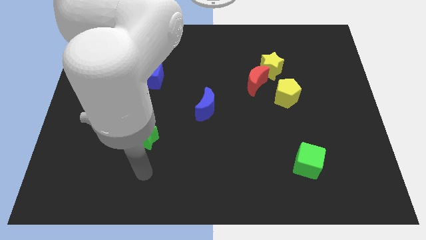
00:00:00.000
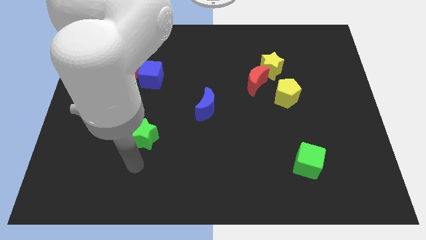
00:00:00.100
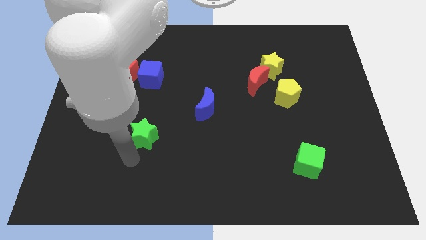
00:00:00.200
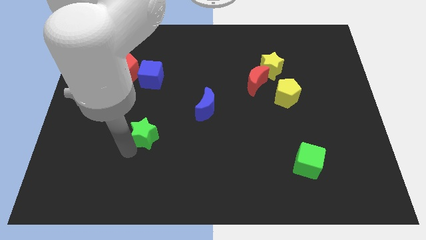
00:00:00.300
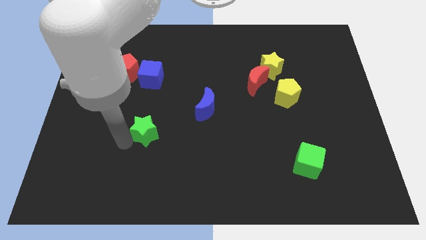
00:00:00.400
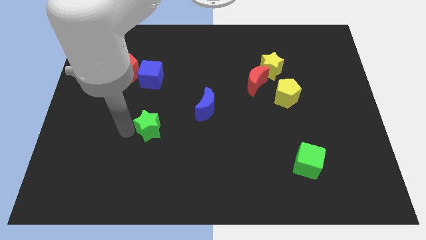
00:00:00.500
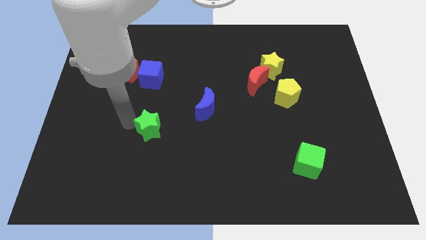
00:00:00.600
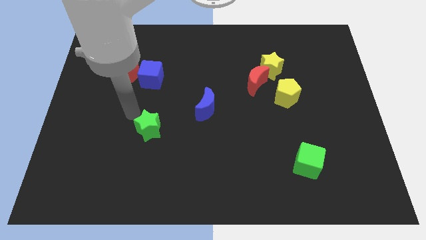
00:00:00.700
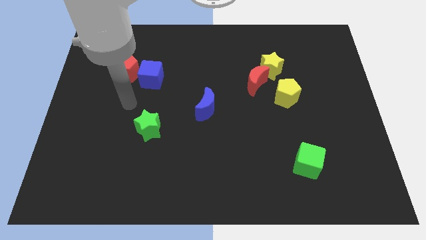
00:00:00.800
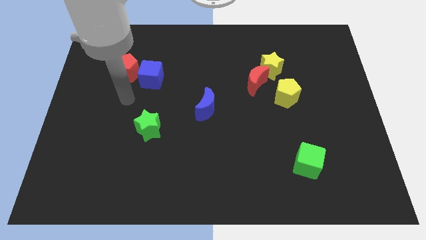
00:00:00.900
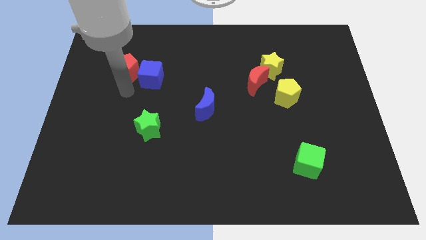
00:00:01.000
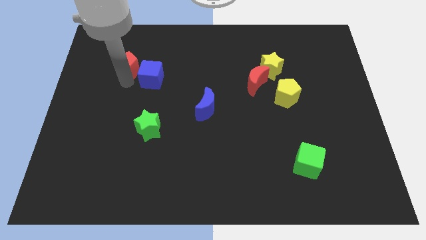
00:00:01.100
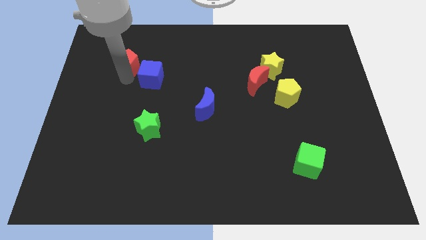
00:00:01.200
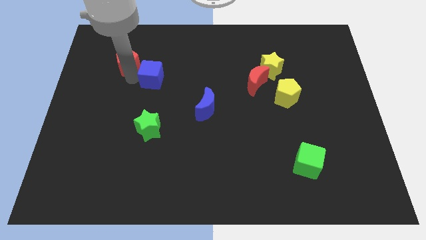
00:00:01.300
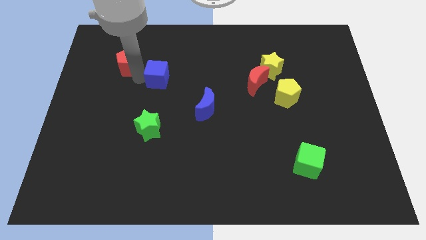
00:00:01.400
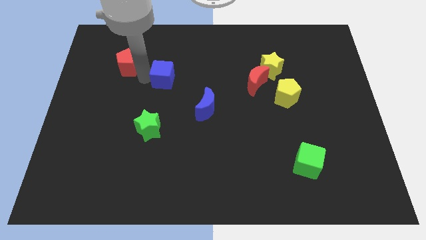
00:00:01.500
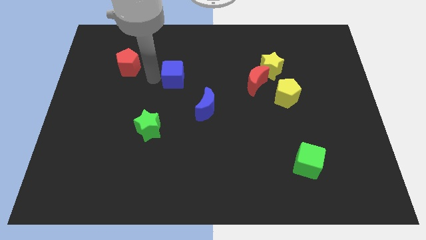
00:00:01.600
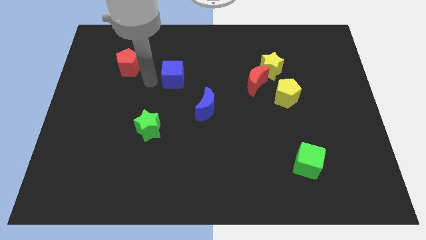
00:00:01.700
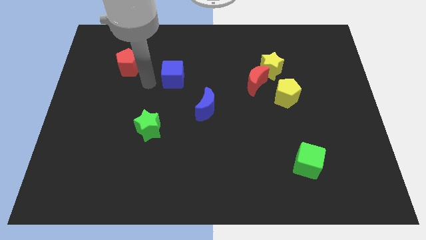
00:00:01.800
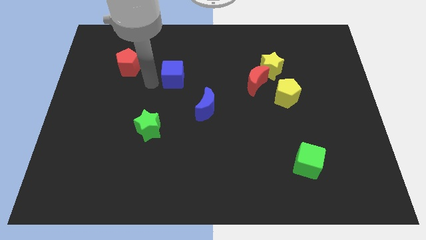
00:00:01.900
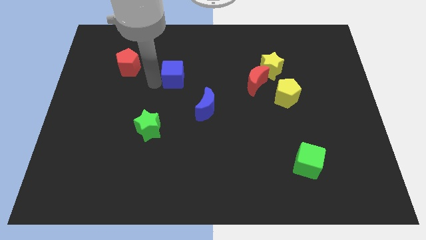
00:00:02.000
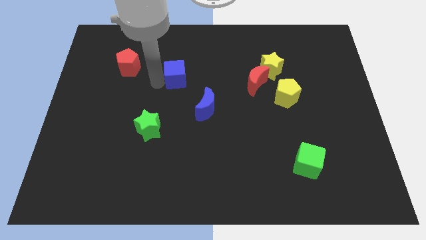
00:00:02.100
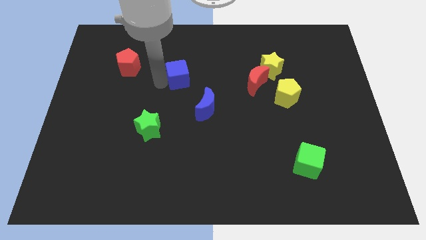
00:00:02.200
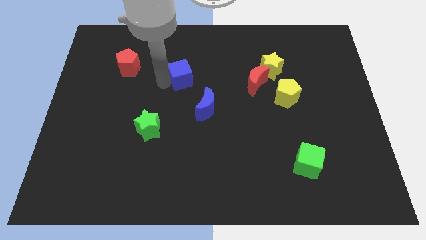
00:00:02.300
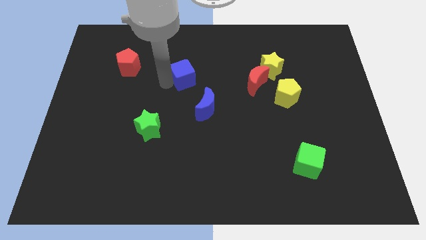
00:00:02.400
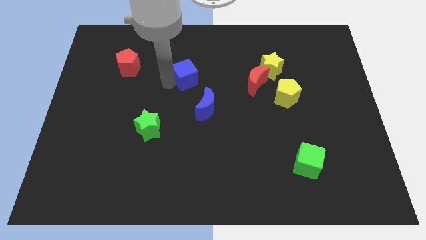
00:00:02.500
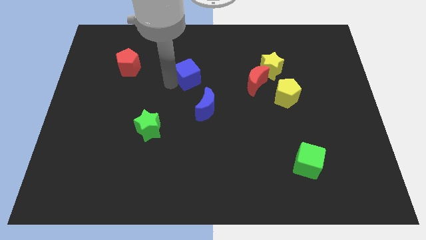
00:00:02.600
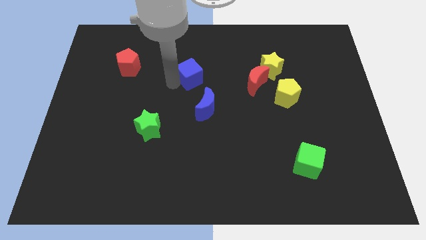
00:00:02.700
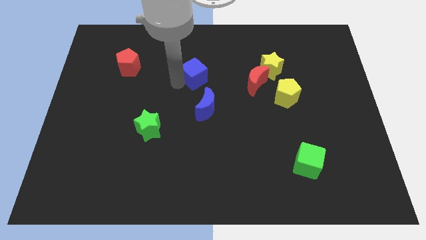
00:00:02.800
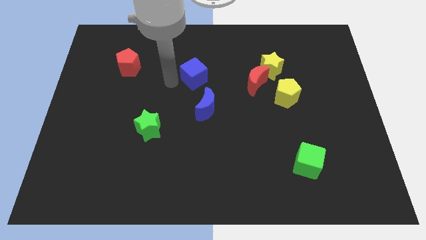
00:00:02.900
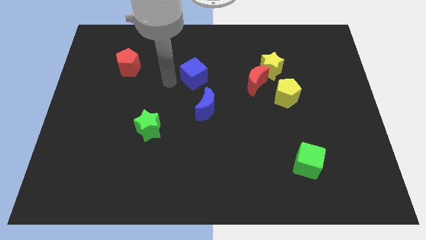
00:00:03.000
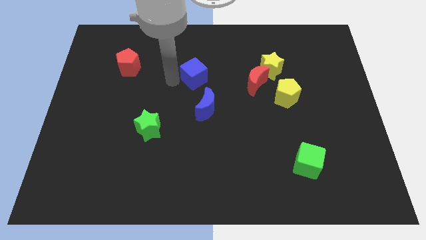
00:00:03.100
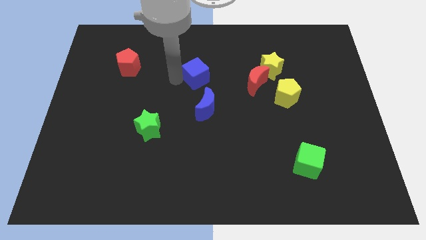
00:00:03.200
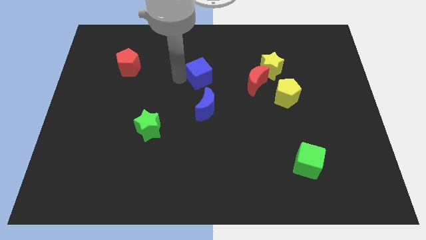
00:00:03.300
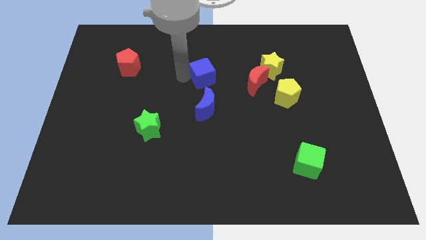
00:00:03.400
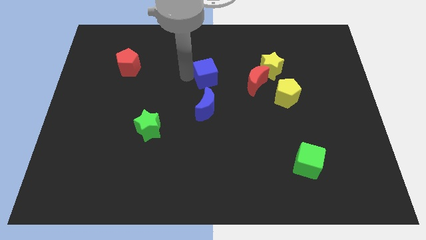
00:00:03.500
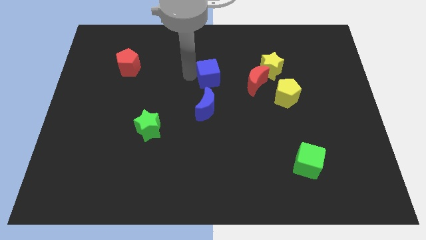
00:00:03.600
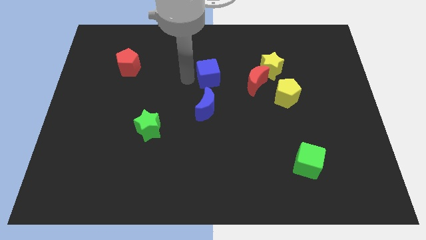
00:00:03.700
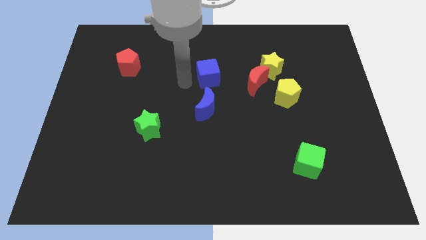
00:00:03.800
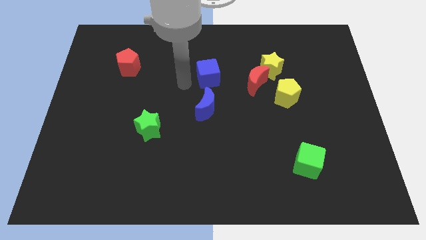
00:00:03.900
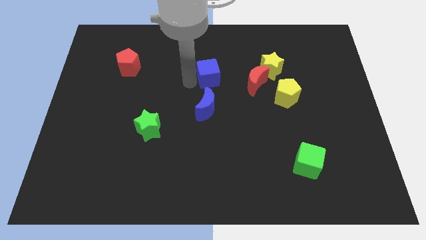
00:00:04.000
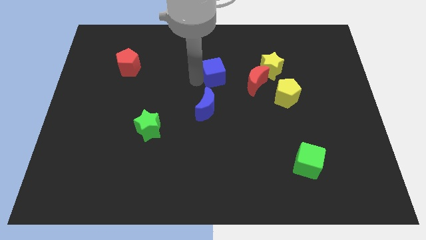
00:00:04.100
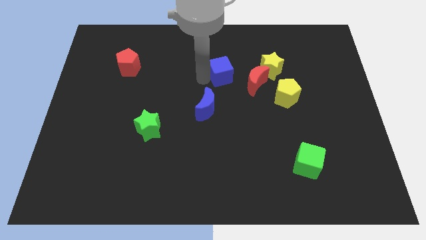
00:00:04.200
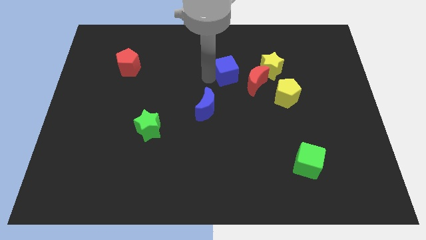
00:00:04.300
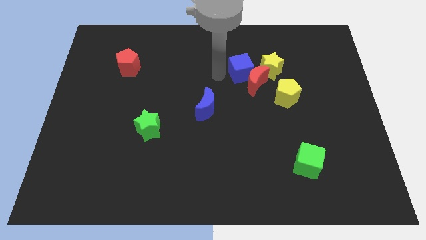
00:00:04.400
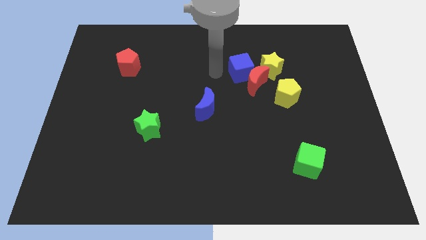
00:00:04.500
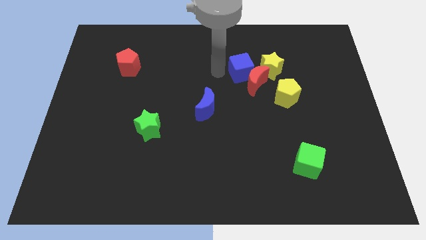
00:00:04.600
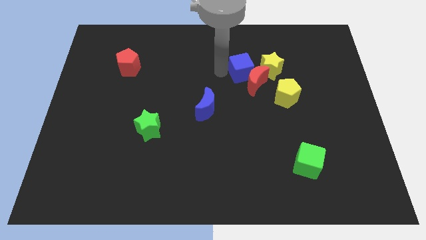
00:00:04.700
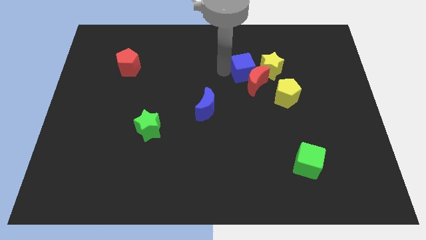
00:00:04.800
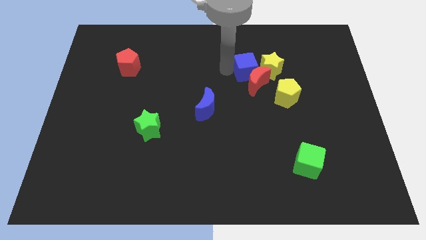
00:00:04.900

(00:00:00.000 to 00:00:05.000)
slide the blue cube next to the yellow star

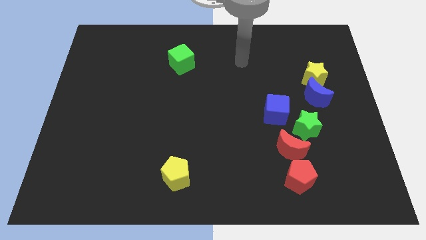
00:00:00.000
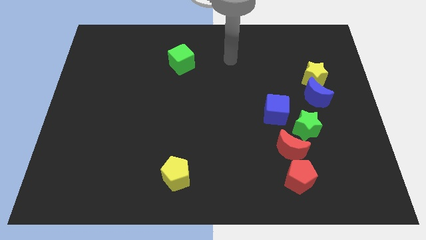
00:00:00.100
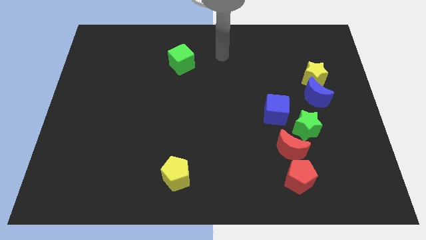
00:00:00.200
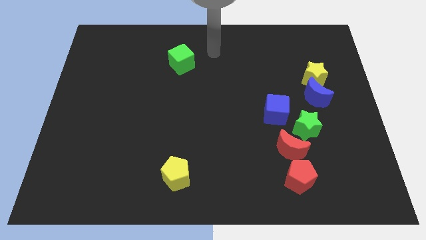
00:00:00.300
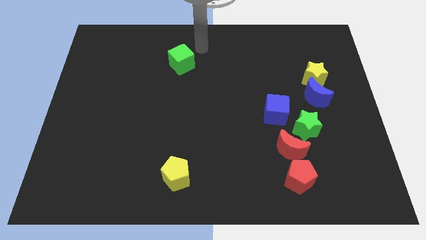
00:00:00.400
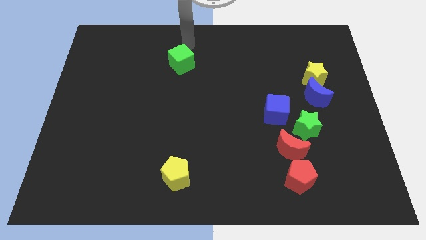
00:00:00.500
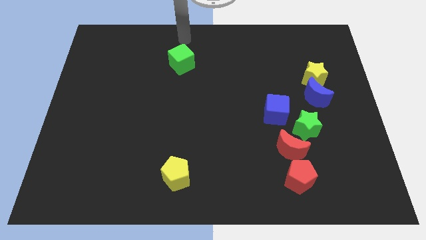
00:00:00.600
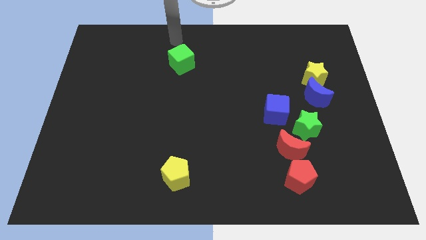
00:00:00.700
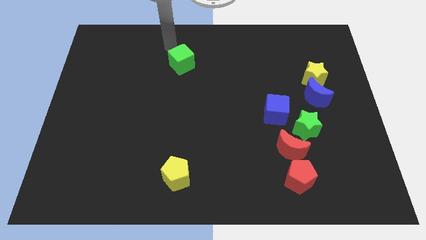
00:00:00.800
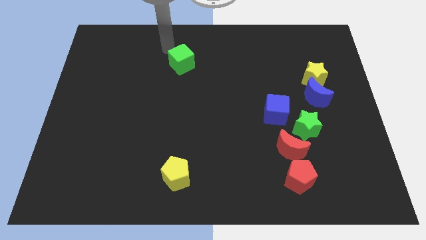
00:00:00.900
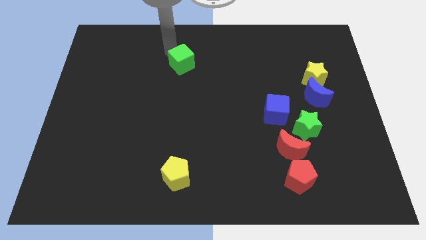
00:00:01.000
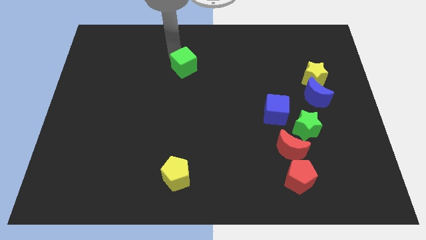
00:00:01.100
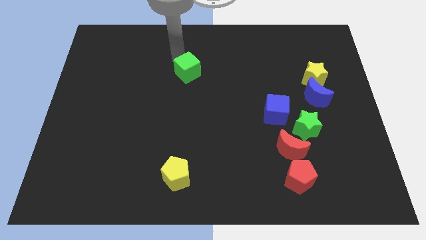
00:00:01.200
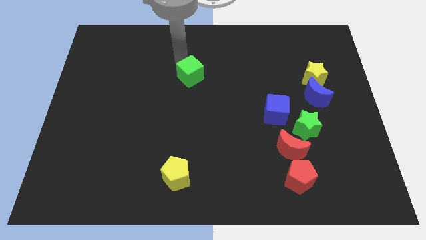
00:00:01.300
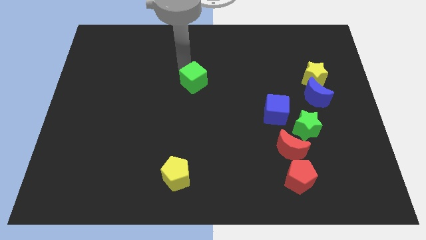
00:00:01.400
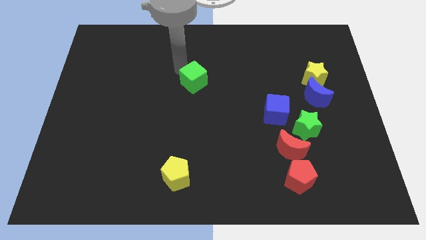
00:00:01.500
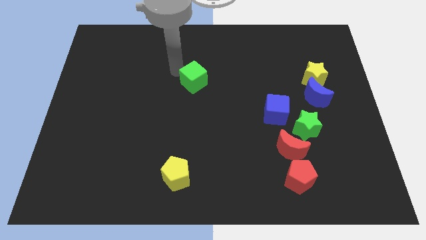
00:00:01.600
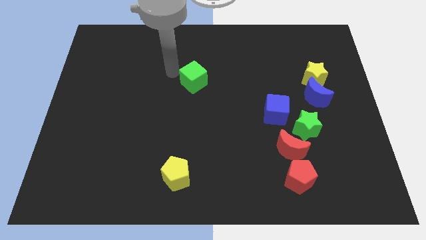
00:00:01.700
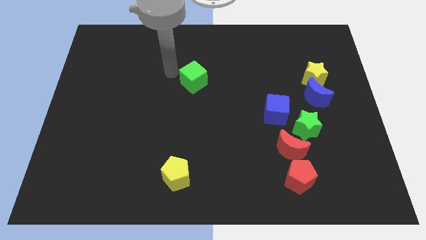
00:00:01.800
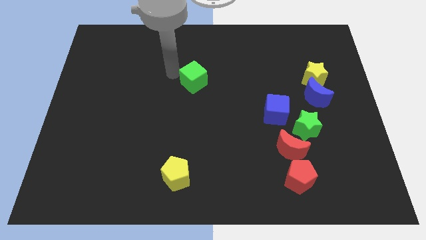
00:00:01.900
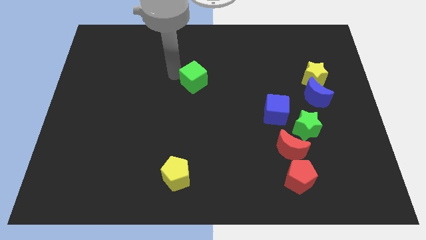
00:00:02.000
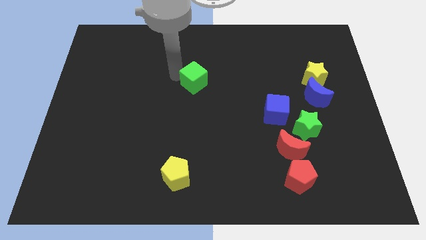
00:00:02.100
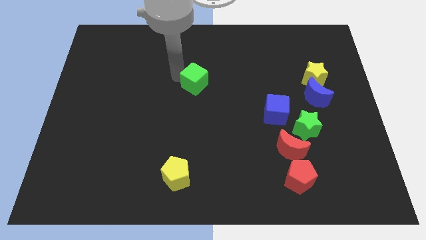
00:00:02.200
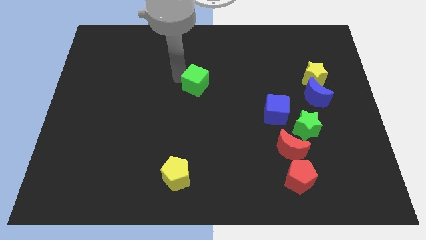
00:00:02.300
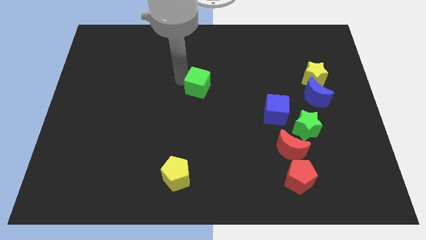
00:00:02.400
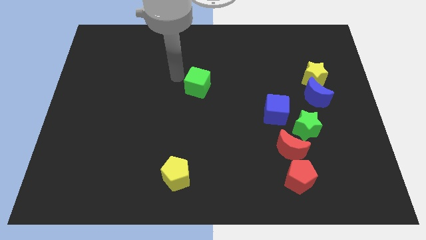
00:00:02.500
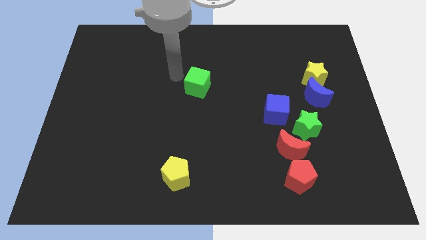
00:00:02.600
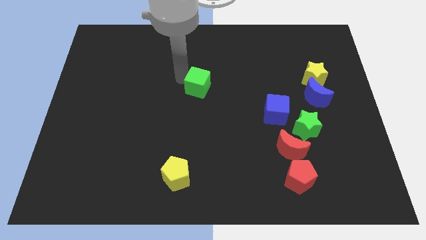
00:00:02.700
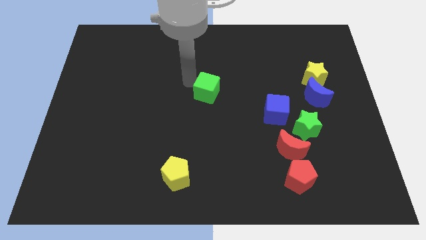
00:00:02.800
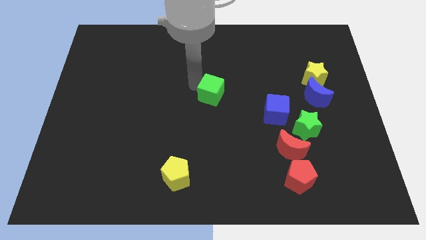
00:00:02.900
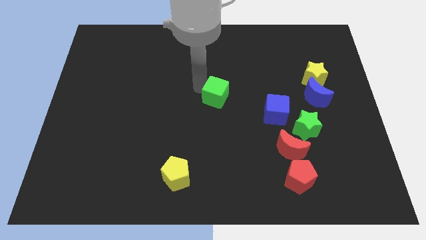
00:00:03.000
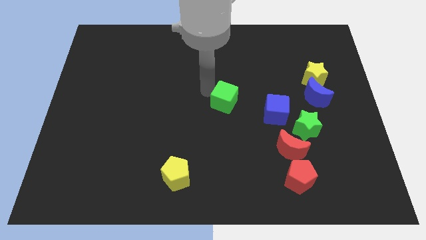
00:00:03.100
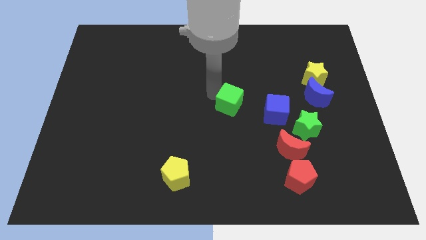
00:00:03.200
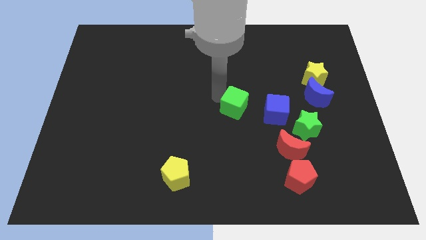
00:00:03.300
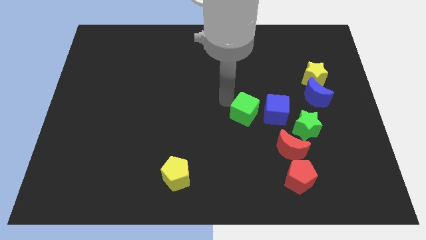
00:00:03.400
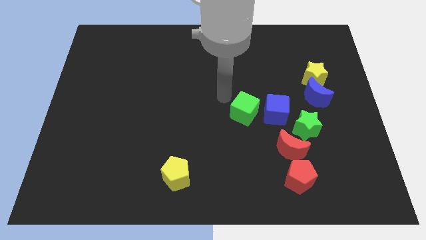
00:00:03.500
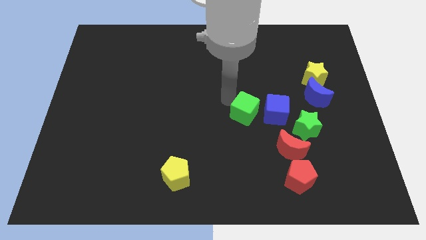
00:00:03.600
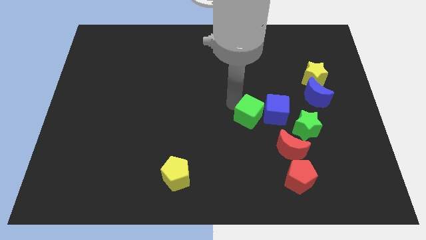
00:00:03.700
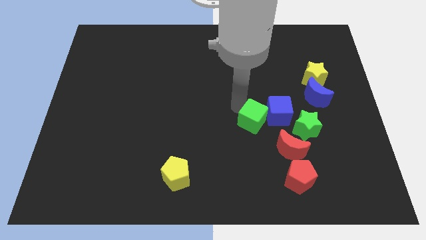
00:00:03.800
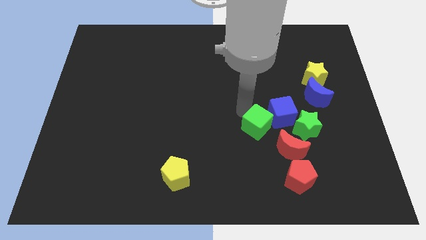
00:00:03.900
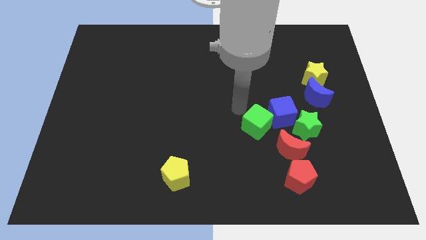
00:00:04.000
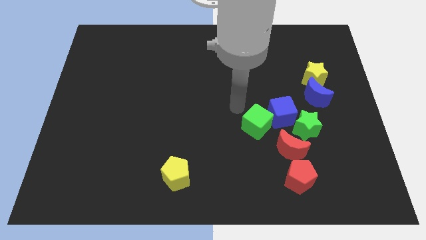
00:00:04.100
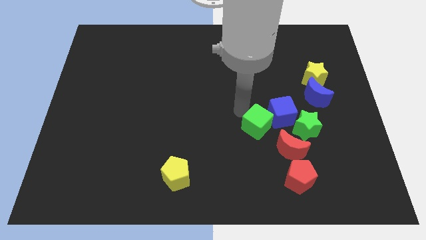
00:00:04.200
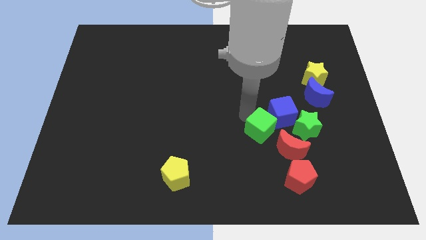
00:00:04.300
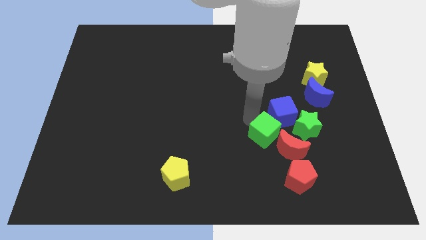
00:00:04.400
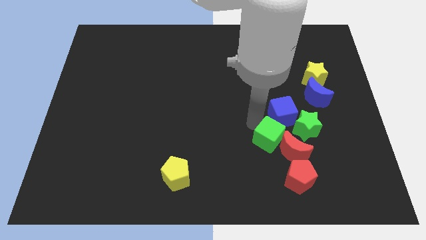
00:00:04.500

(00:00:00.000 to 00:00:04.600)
put the green cube close to the red moon
